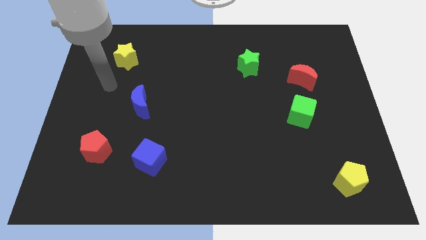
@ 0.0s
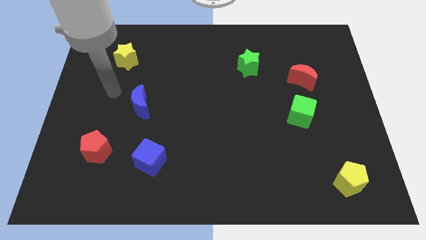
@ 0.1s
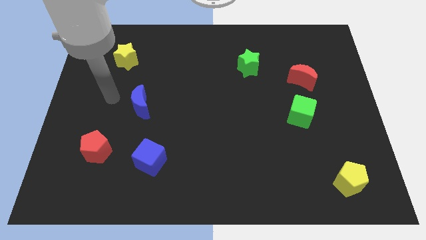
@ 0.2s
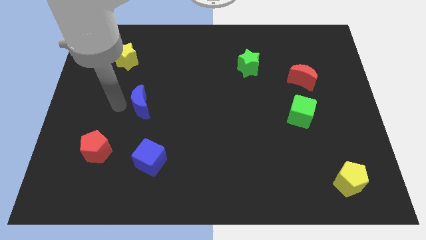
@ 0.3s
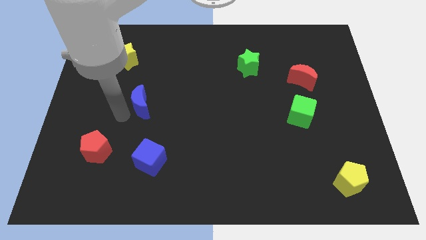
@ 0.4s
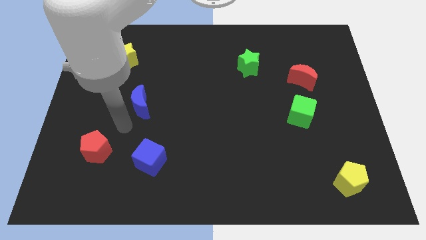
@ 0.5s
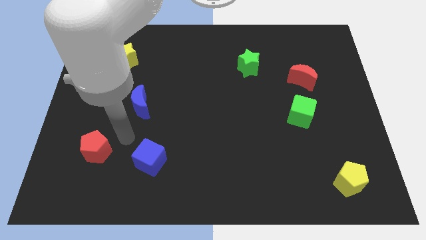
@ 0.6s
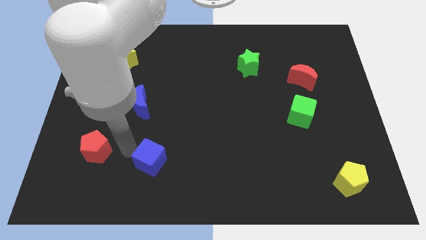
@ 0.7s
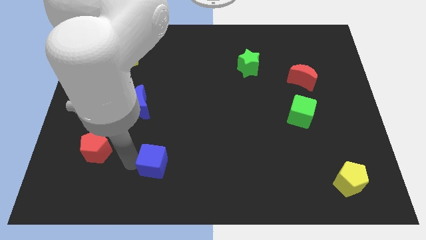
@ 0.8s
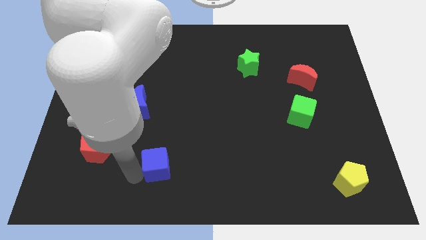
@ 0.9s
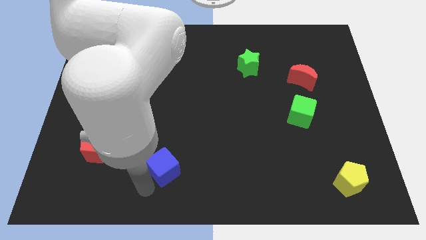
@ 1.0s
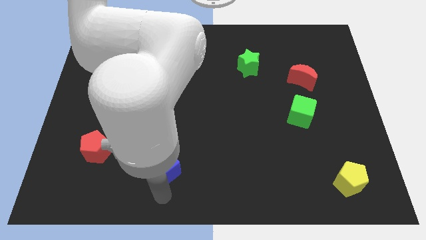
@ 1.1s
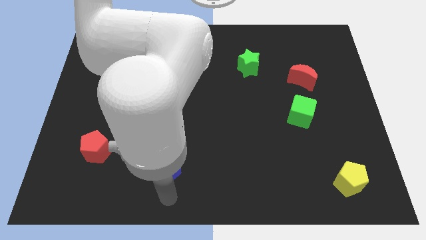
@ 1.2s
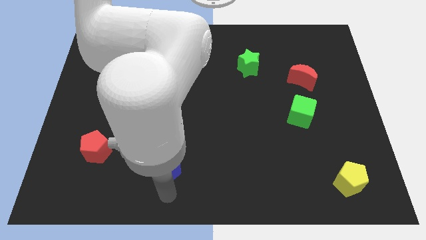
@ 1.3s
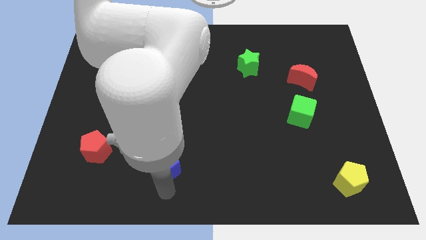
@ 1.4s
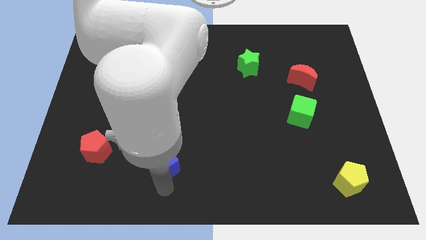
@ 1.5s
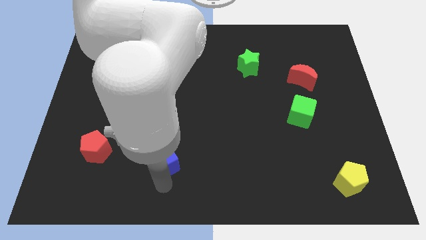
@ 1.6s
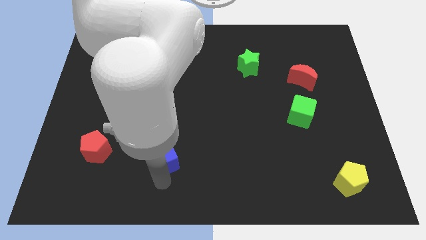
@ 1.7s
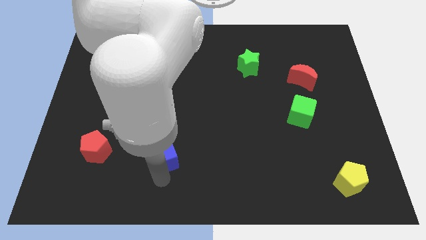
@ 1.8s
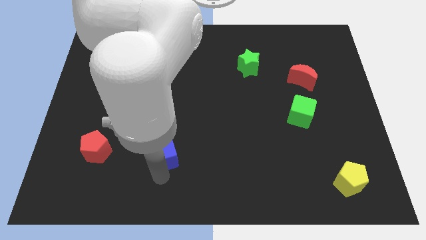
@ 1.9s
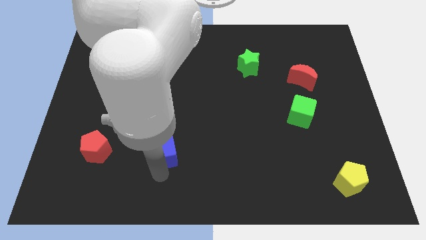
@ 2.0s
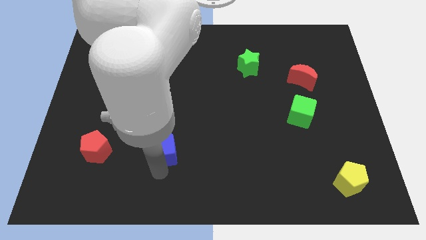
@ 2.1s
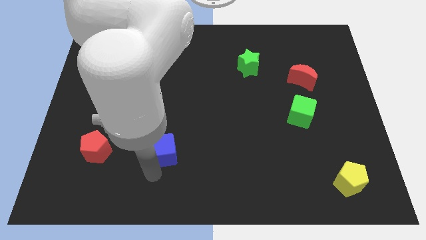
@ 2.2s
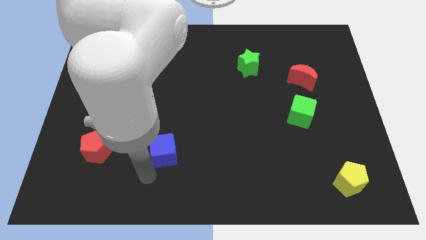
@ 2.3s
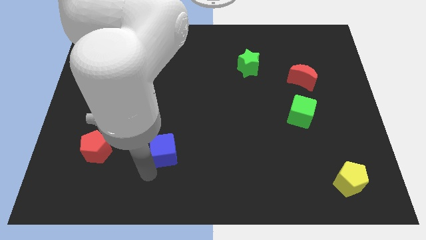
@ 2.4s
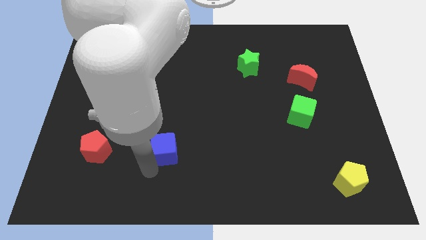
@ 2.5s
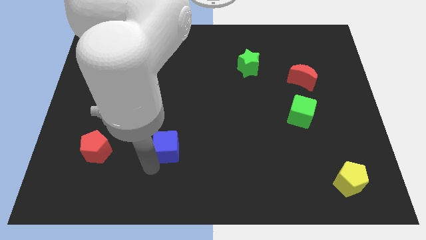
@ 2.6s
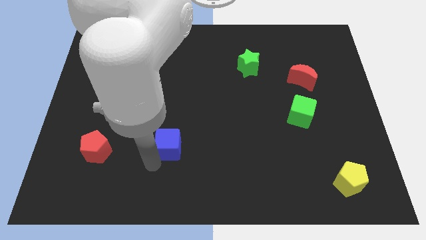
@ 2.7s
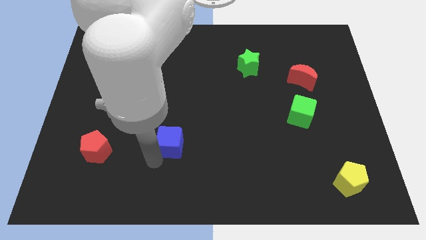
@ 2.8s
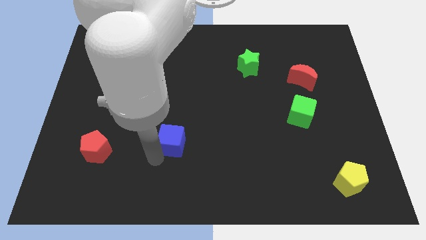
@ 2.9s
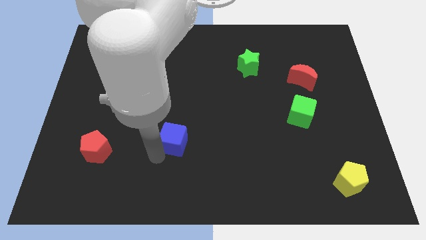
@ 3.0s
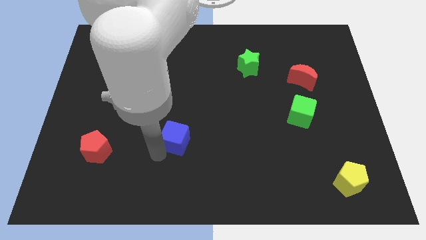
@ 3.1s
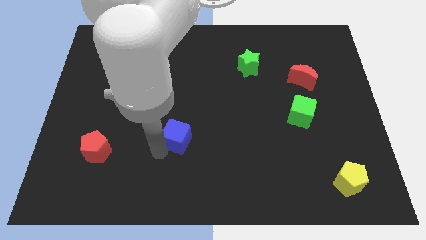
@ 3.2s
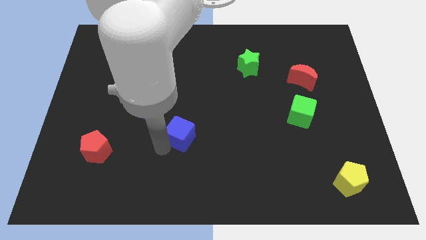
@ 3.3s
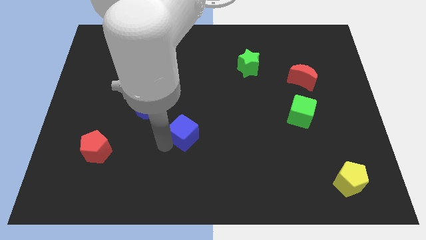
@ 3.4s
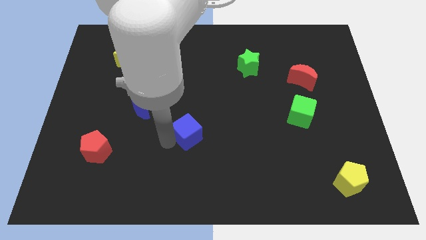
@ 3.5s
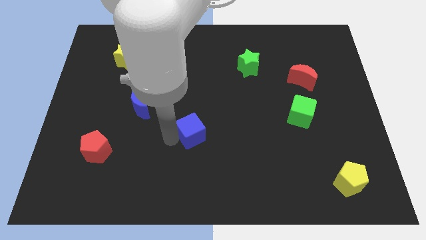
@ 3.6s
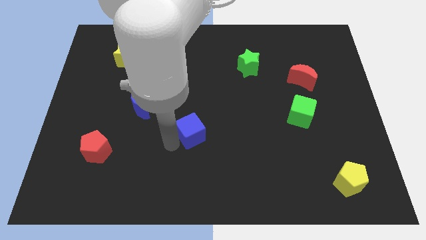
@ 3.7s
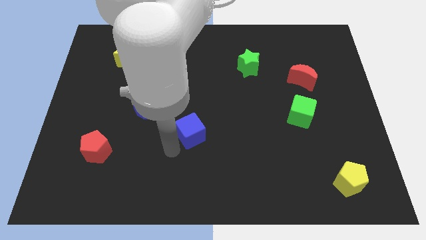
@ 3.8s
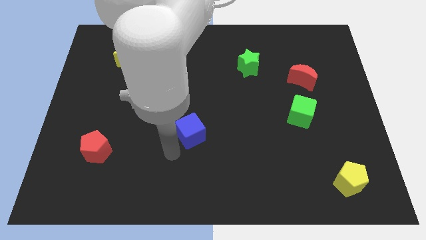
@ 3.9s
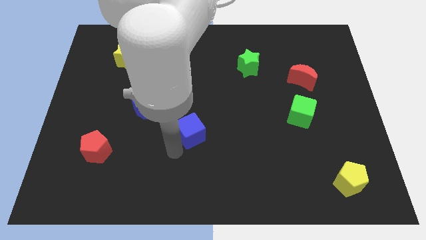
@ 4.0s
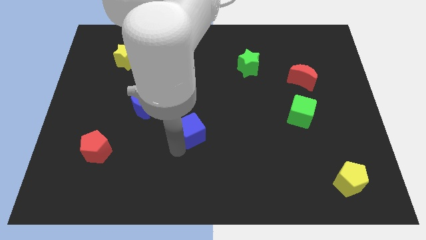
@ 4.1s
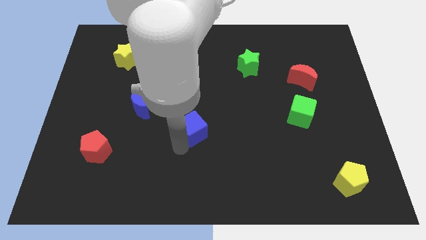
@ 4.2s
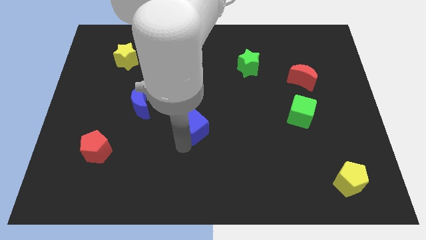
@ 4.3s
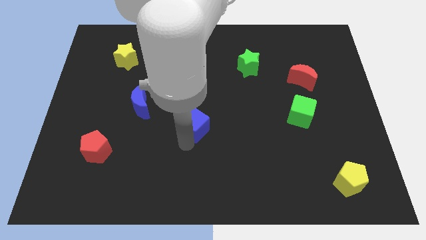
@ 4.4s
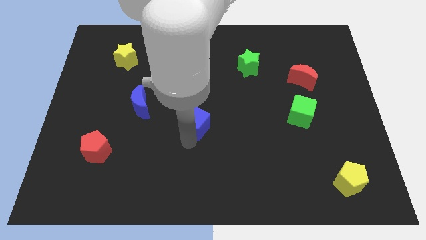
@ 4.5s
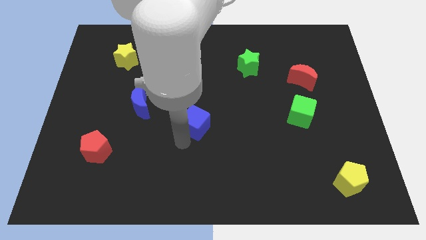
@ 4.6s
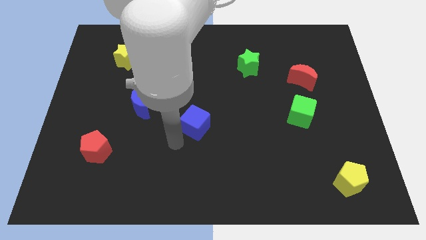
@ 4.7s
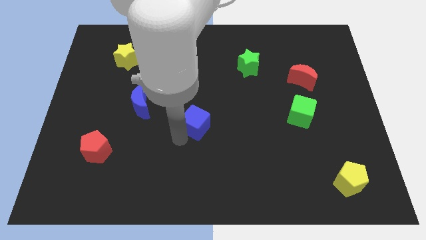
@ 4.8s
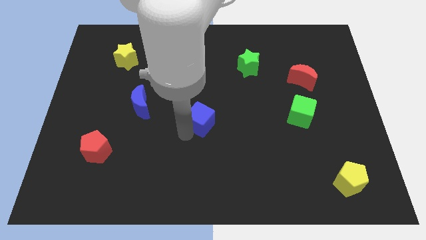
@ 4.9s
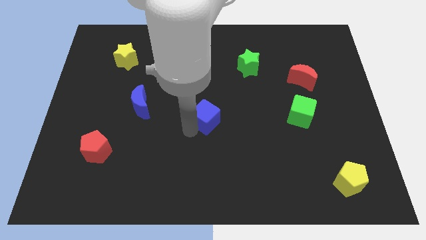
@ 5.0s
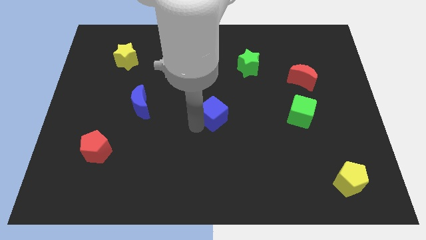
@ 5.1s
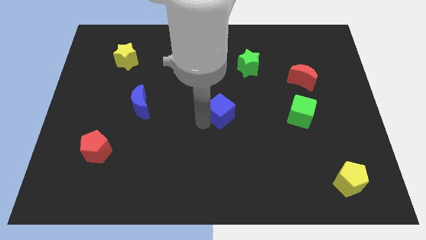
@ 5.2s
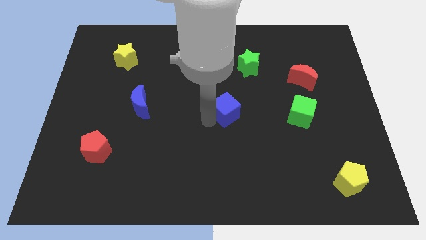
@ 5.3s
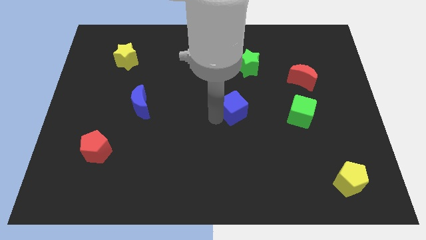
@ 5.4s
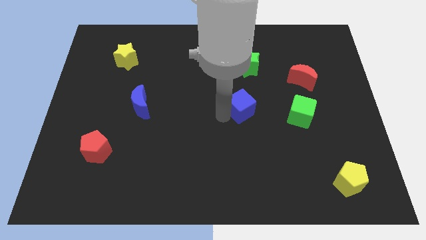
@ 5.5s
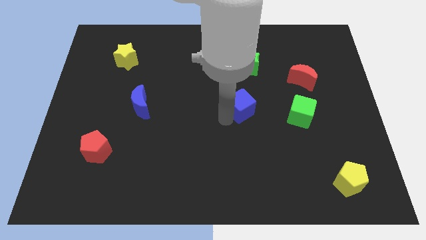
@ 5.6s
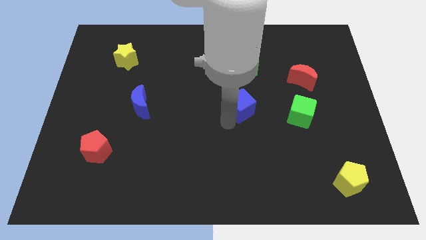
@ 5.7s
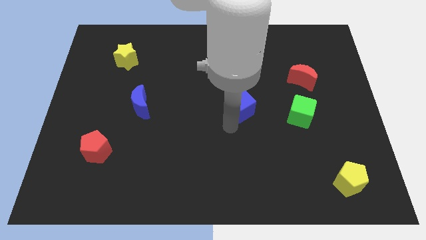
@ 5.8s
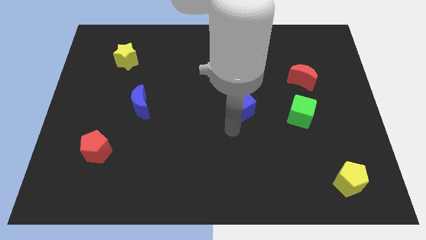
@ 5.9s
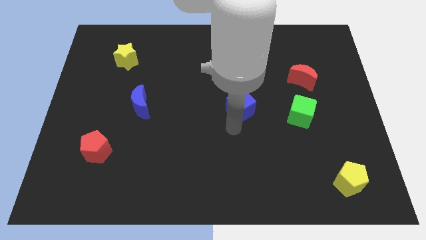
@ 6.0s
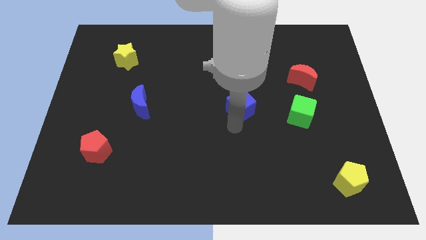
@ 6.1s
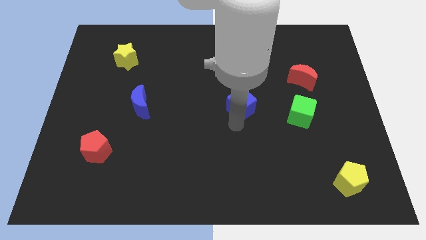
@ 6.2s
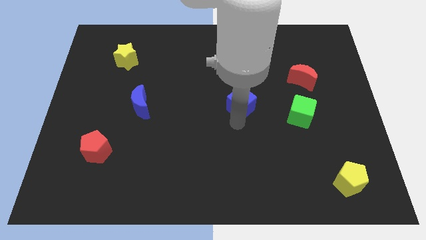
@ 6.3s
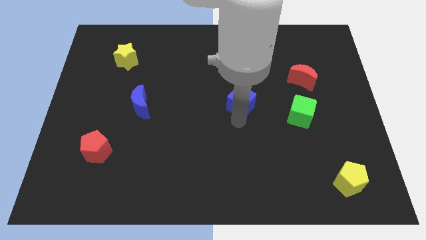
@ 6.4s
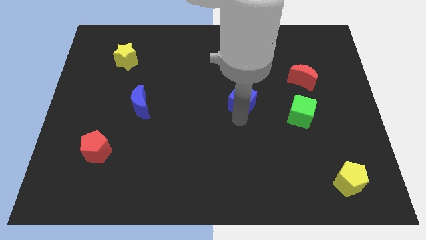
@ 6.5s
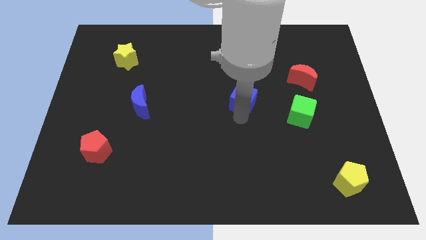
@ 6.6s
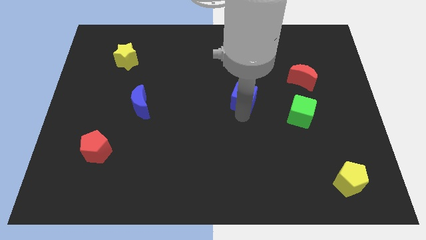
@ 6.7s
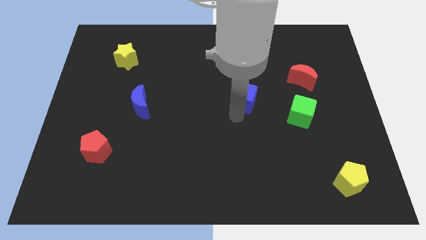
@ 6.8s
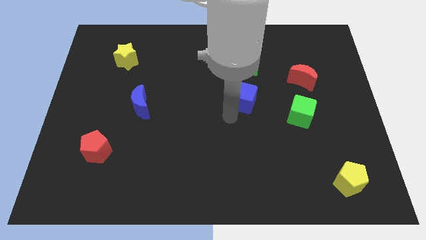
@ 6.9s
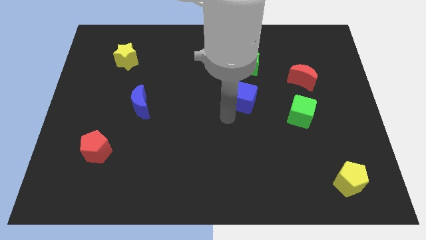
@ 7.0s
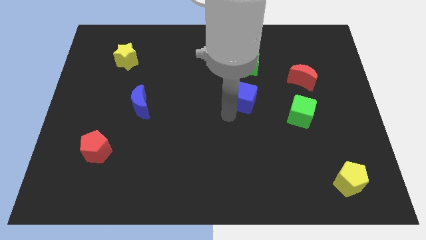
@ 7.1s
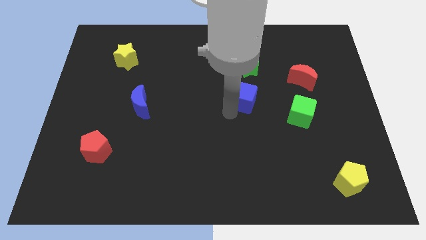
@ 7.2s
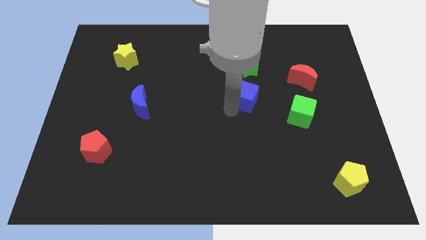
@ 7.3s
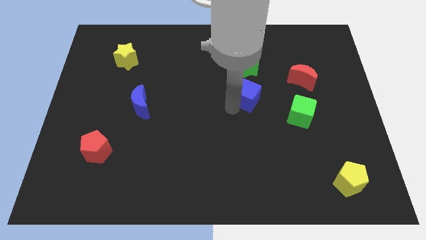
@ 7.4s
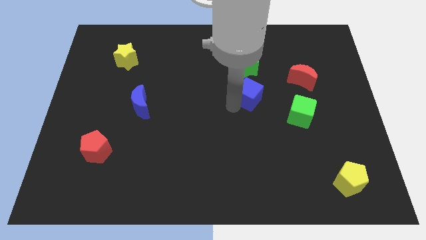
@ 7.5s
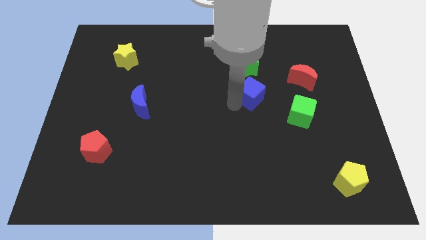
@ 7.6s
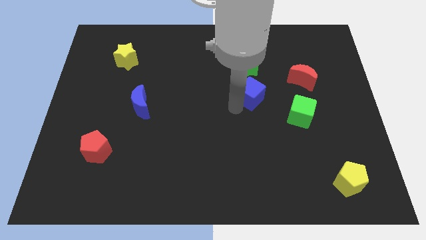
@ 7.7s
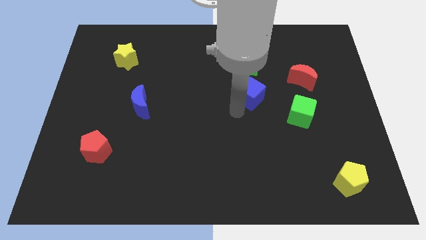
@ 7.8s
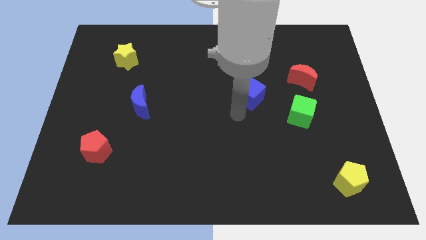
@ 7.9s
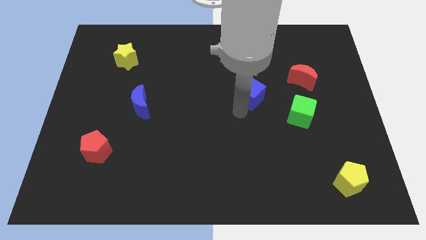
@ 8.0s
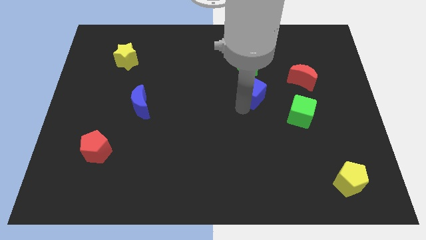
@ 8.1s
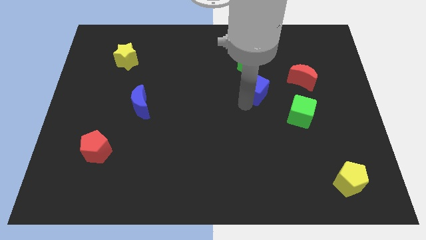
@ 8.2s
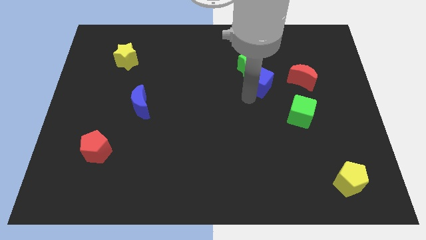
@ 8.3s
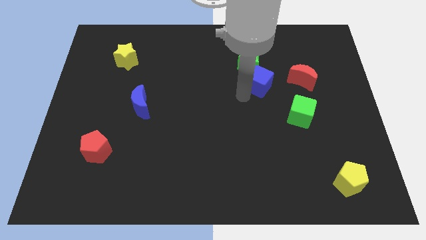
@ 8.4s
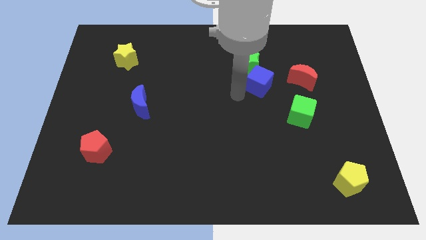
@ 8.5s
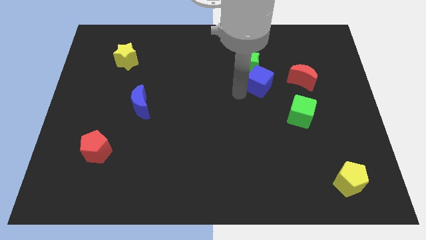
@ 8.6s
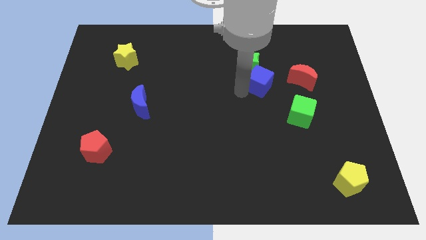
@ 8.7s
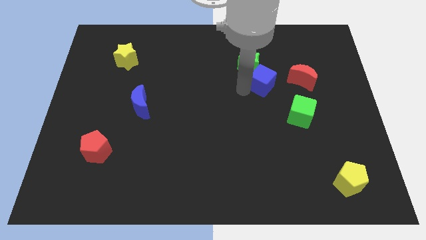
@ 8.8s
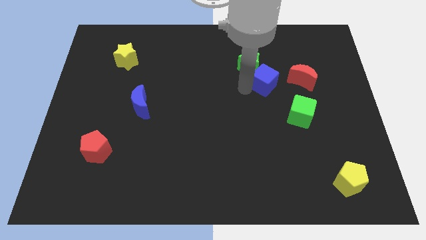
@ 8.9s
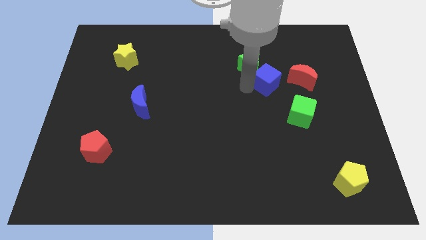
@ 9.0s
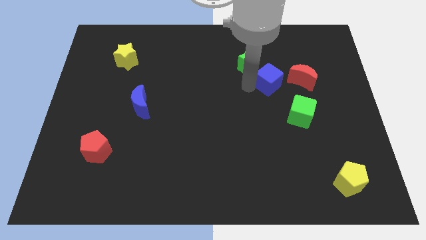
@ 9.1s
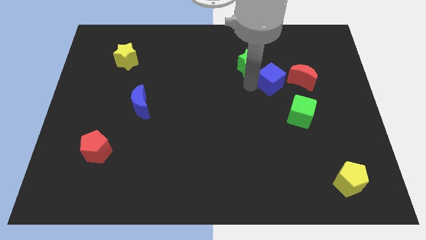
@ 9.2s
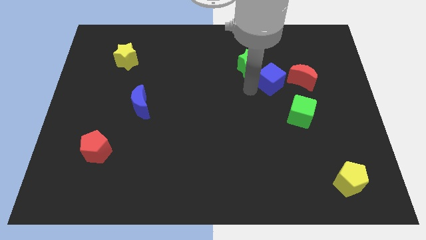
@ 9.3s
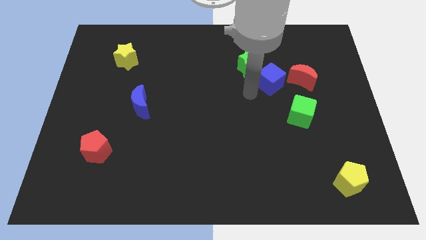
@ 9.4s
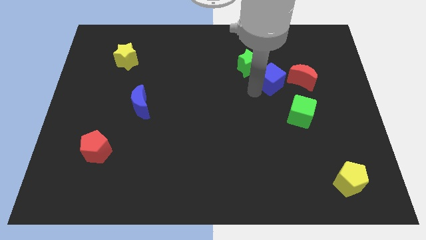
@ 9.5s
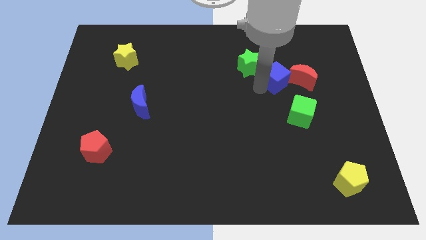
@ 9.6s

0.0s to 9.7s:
slide the blue cube above the green cube
